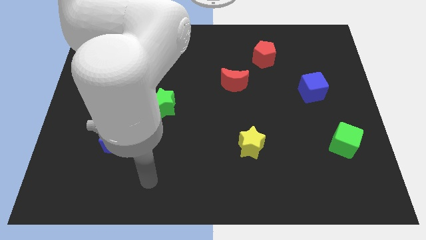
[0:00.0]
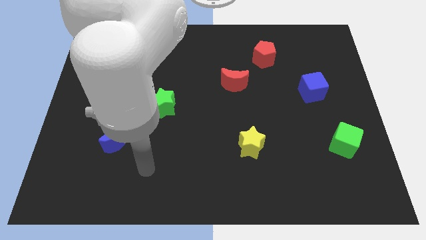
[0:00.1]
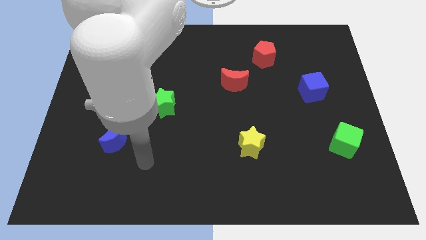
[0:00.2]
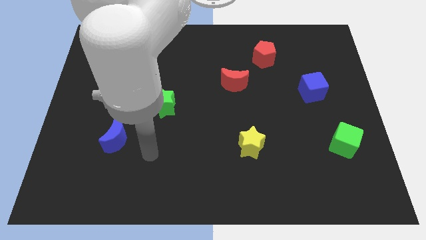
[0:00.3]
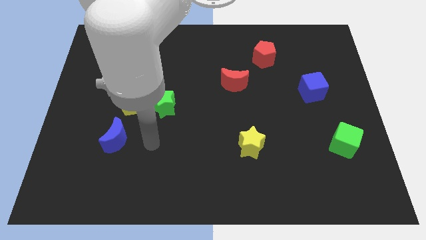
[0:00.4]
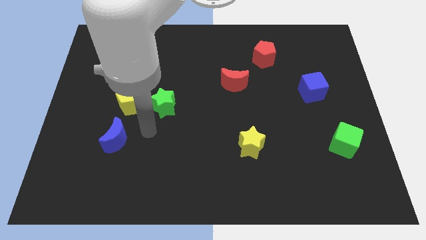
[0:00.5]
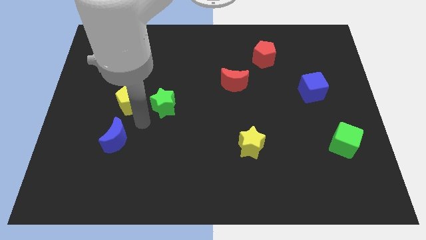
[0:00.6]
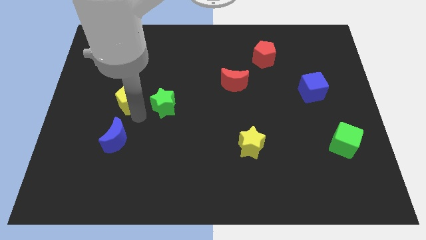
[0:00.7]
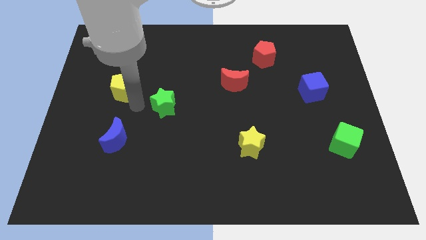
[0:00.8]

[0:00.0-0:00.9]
pull the green star apart from the yellow pentagon

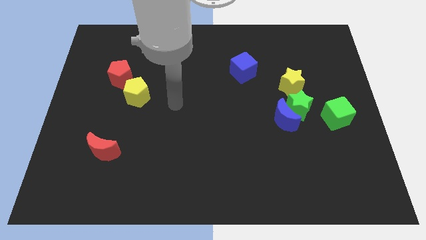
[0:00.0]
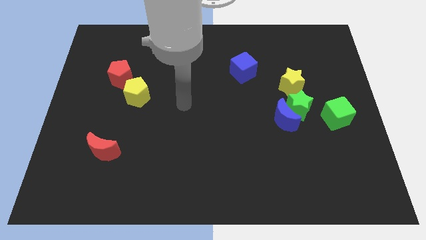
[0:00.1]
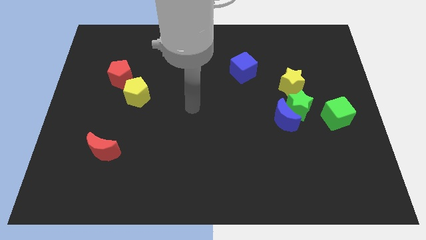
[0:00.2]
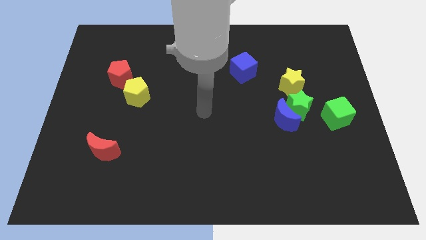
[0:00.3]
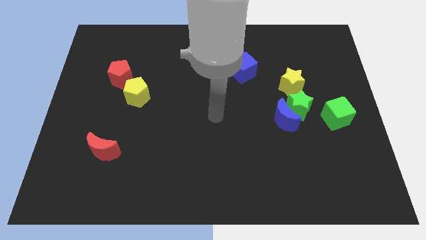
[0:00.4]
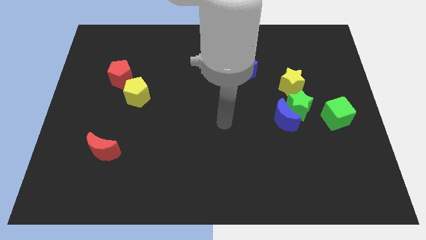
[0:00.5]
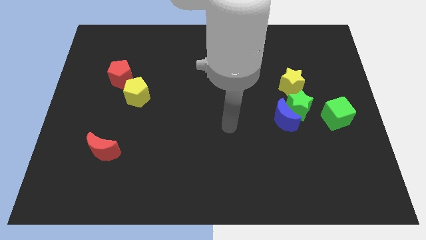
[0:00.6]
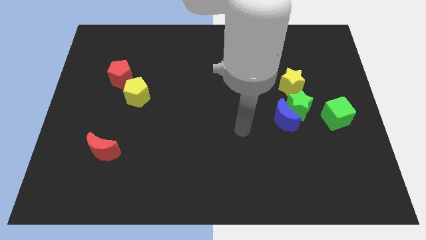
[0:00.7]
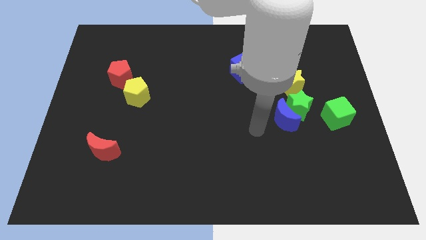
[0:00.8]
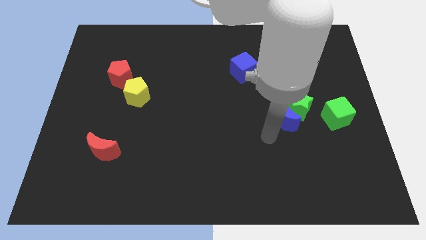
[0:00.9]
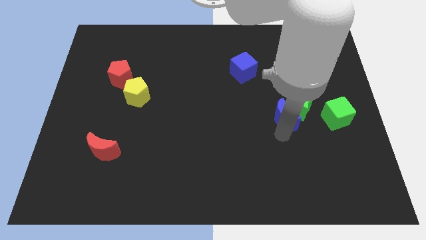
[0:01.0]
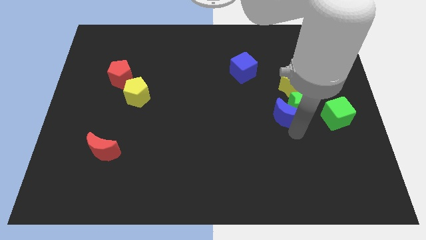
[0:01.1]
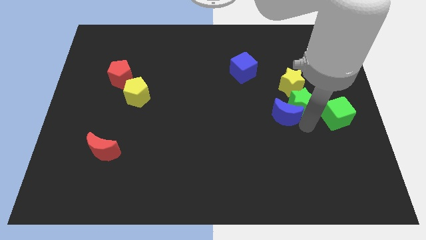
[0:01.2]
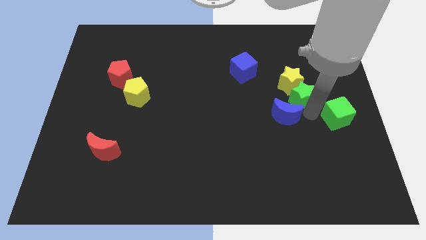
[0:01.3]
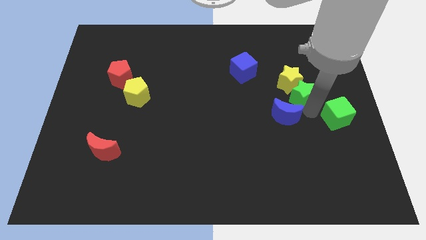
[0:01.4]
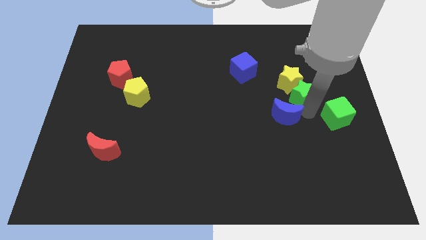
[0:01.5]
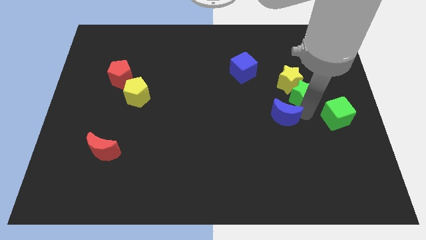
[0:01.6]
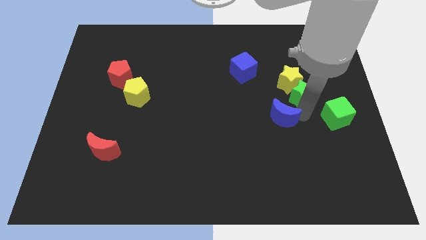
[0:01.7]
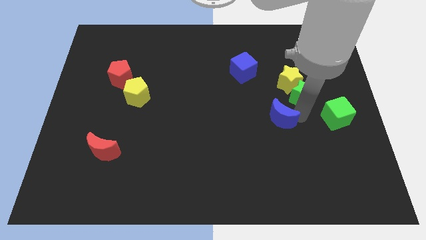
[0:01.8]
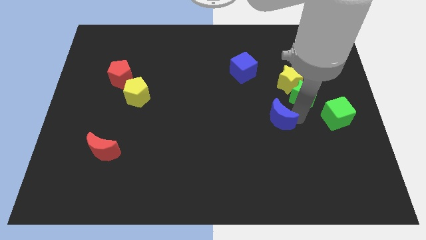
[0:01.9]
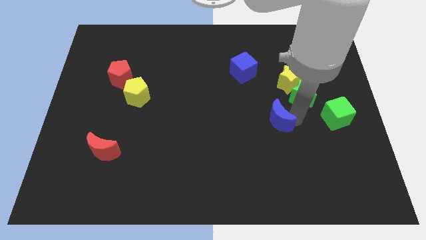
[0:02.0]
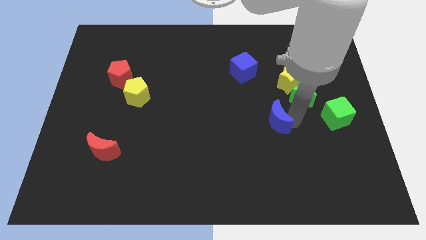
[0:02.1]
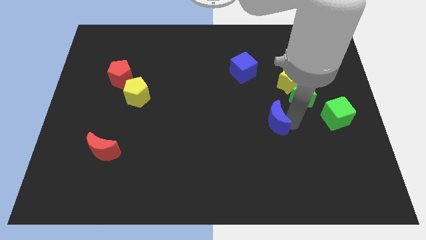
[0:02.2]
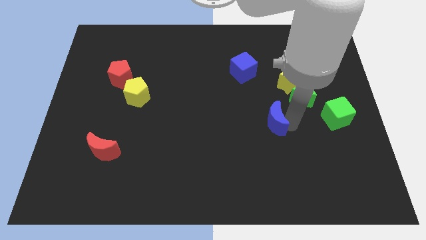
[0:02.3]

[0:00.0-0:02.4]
separate the blue moon from the green star

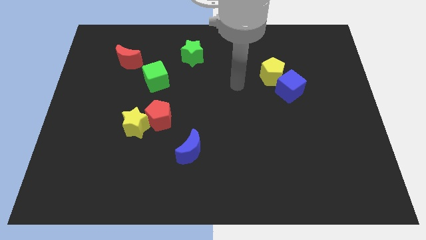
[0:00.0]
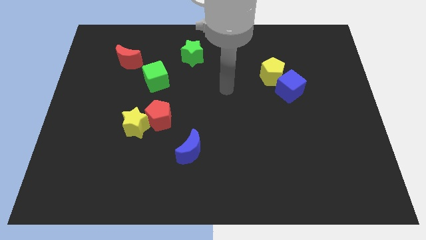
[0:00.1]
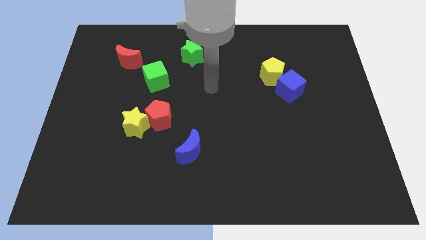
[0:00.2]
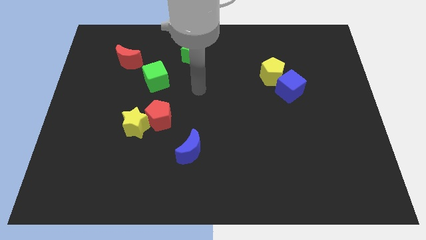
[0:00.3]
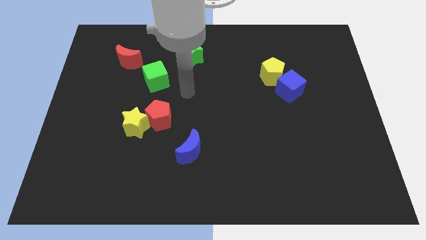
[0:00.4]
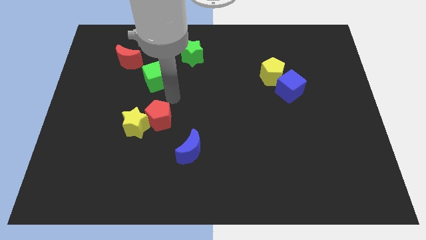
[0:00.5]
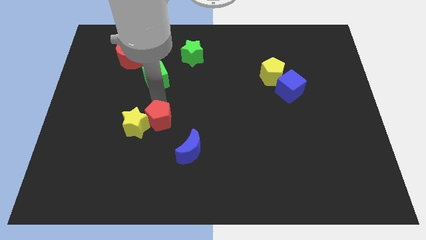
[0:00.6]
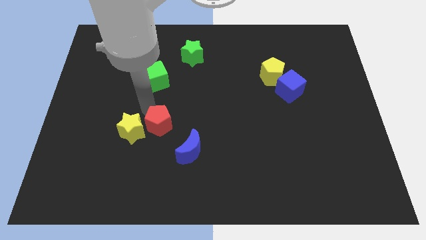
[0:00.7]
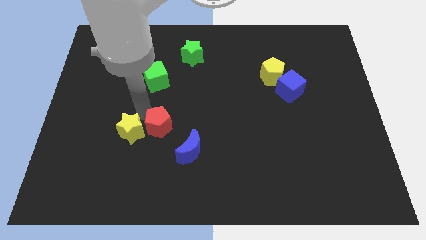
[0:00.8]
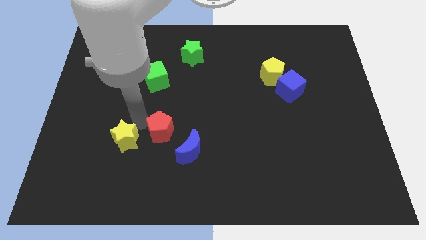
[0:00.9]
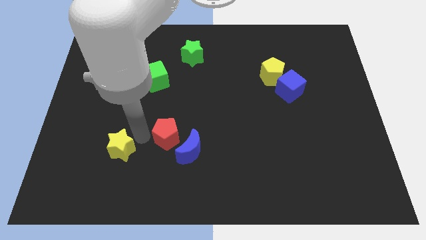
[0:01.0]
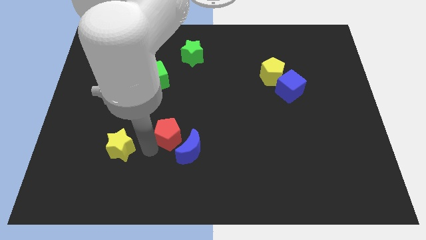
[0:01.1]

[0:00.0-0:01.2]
separate the red pentagon from the yellow star

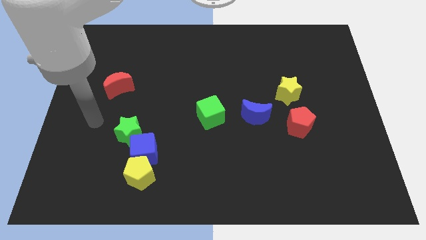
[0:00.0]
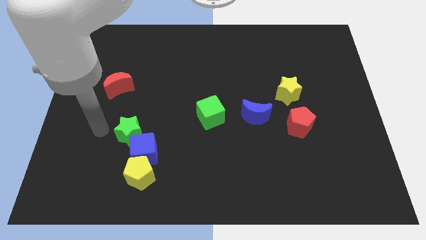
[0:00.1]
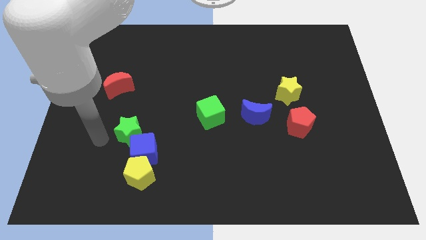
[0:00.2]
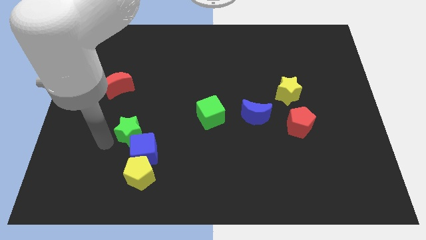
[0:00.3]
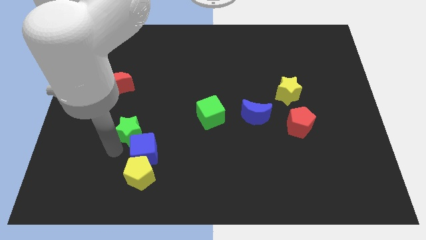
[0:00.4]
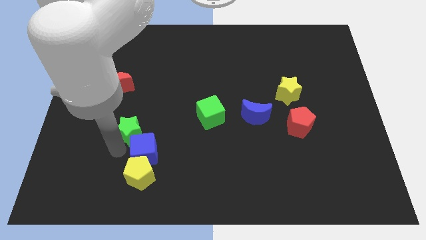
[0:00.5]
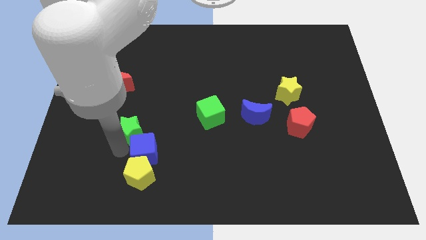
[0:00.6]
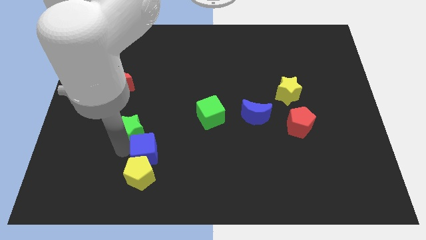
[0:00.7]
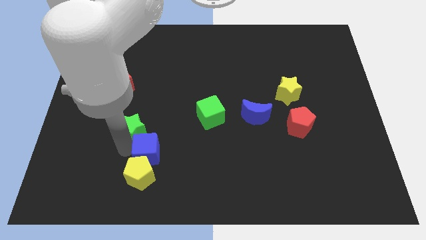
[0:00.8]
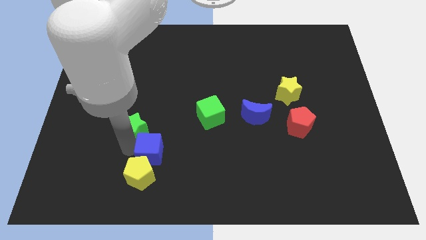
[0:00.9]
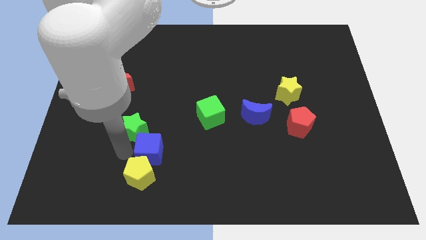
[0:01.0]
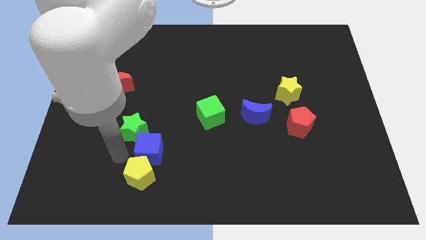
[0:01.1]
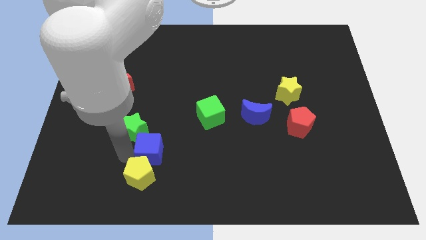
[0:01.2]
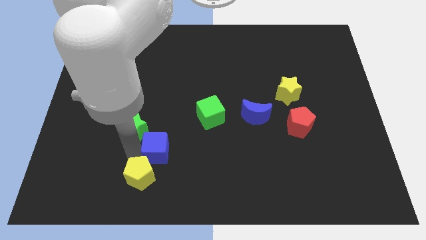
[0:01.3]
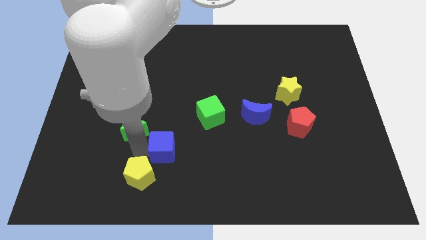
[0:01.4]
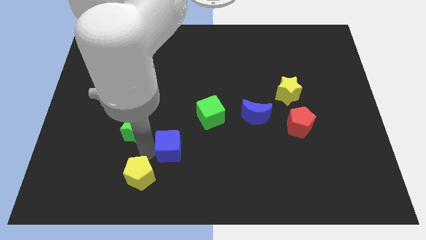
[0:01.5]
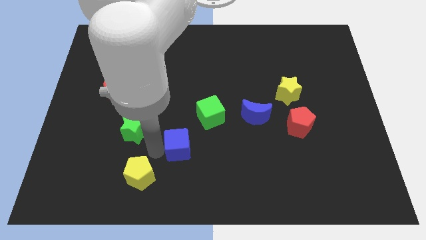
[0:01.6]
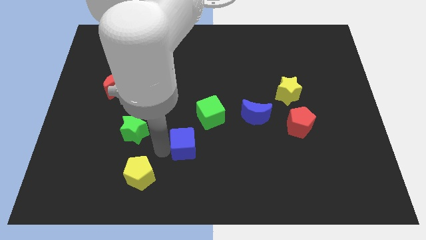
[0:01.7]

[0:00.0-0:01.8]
move the blue cube away from the yellow pentagon and green star

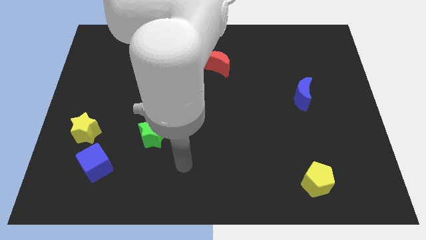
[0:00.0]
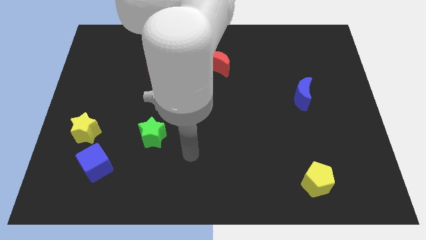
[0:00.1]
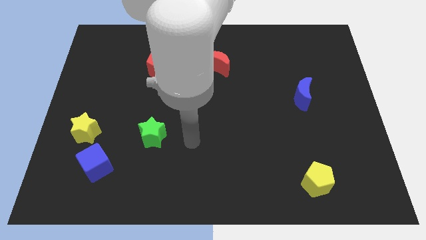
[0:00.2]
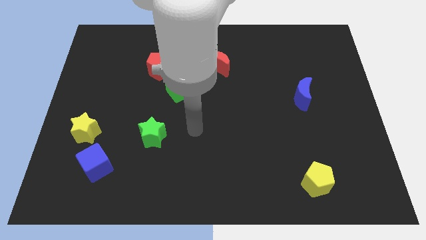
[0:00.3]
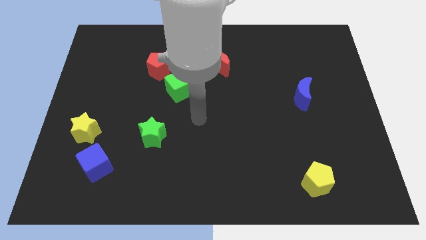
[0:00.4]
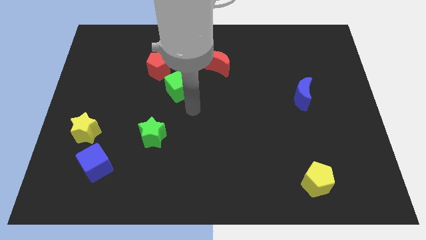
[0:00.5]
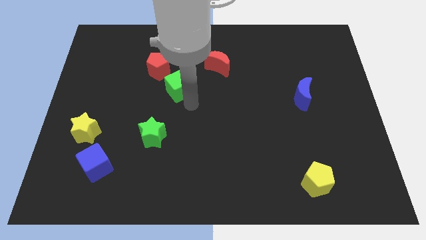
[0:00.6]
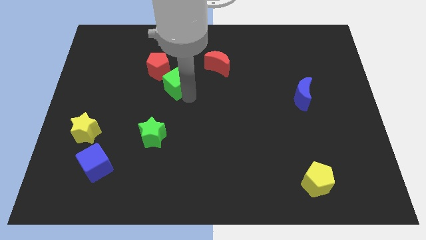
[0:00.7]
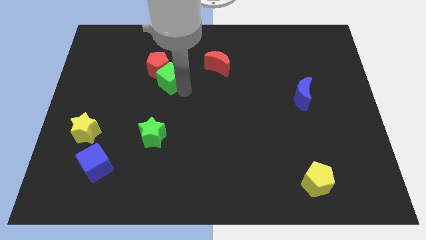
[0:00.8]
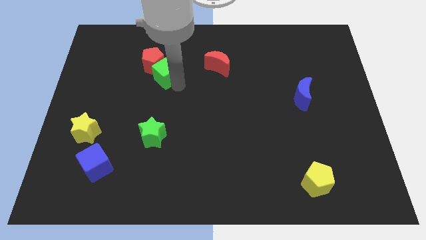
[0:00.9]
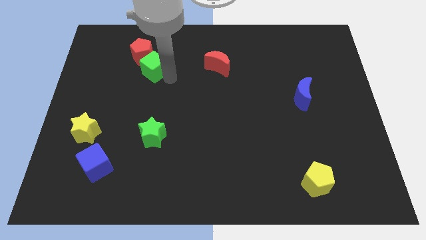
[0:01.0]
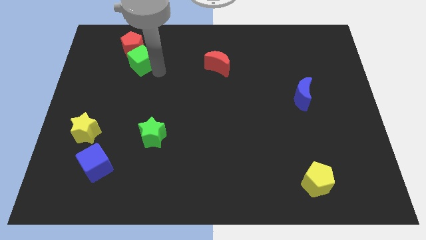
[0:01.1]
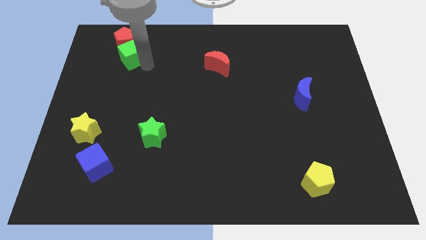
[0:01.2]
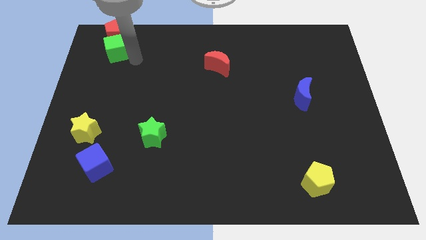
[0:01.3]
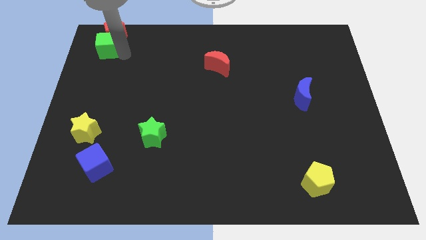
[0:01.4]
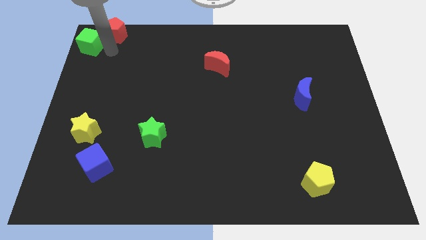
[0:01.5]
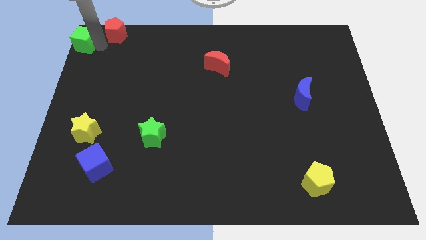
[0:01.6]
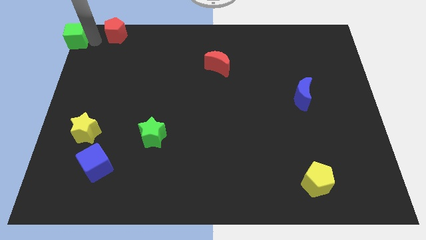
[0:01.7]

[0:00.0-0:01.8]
separate the red pentagon from the green cube

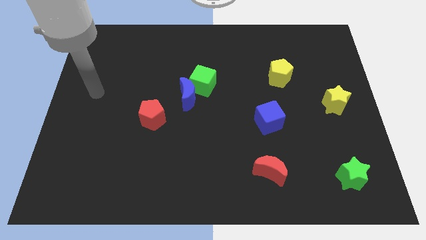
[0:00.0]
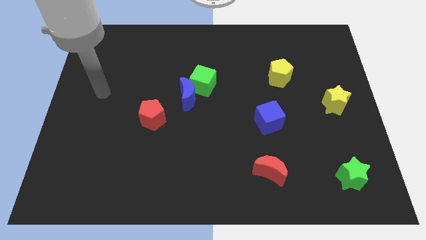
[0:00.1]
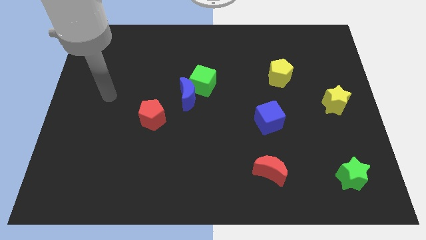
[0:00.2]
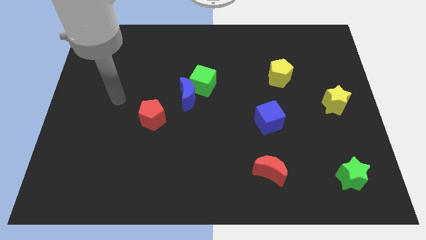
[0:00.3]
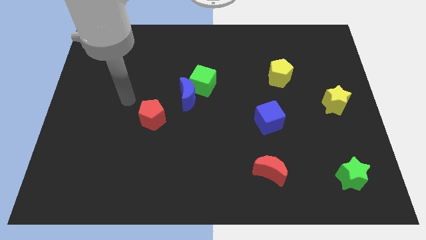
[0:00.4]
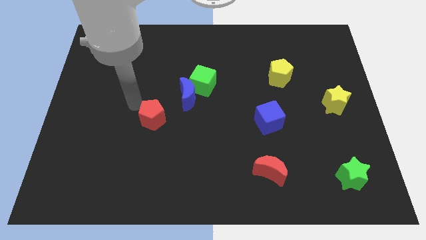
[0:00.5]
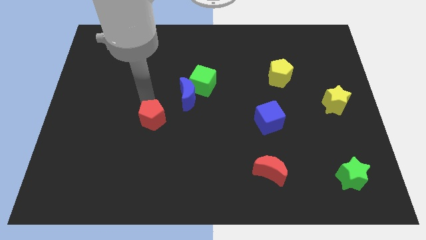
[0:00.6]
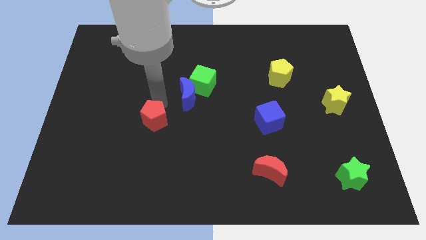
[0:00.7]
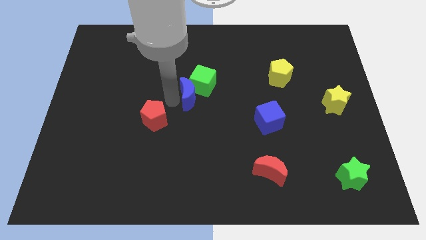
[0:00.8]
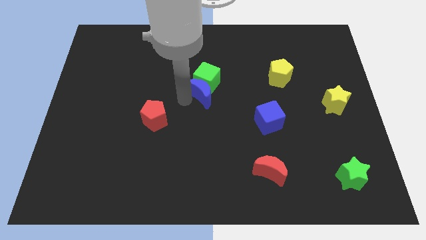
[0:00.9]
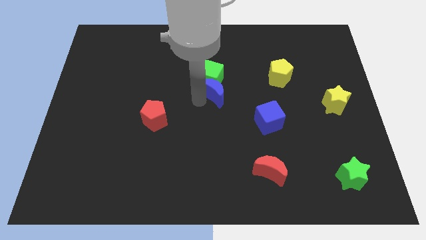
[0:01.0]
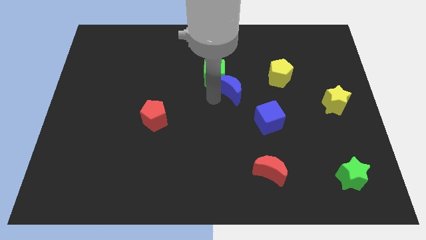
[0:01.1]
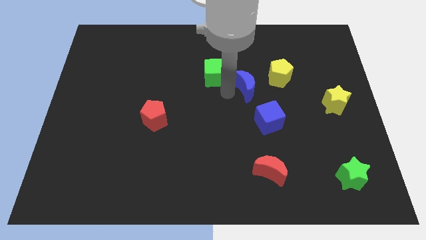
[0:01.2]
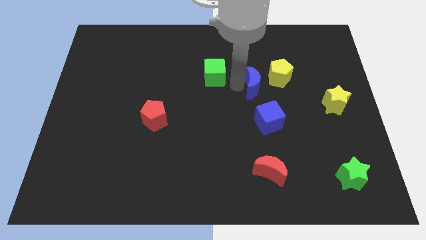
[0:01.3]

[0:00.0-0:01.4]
pull the green cube apart from the blue moon
